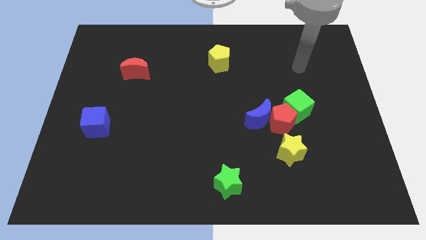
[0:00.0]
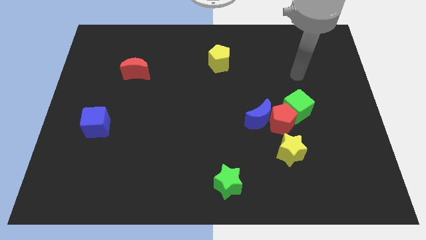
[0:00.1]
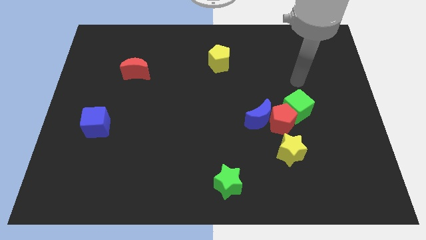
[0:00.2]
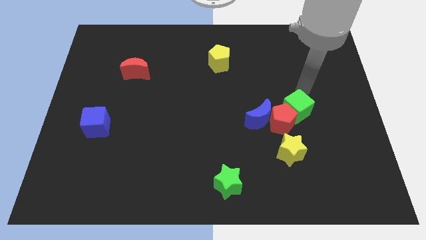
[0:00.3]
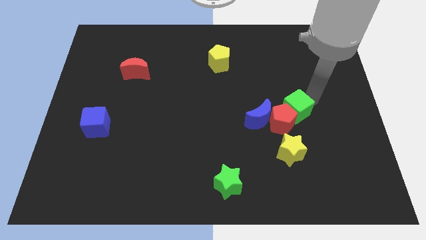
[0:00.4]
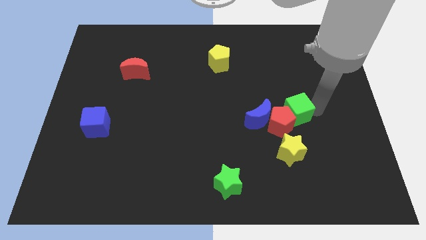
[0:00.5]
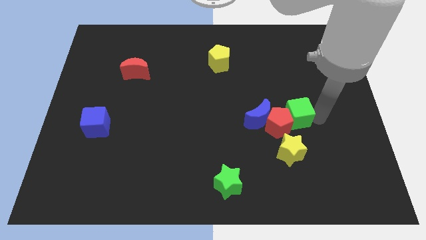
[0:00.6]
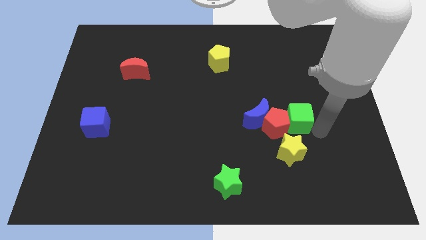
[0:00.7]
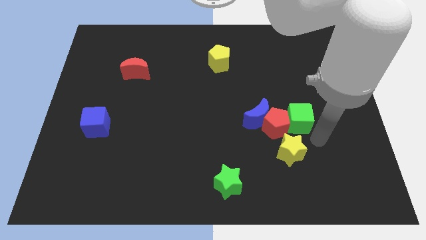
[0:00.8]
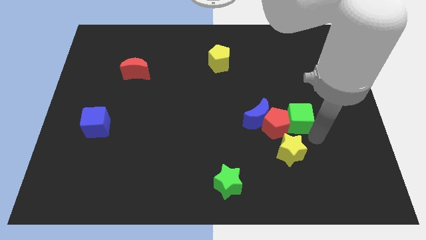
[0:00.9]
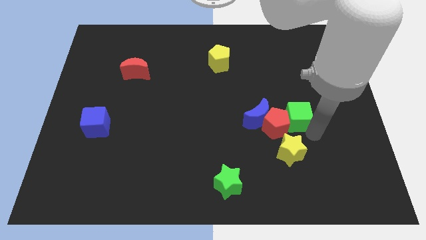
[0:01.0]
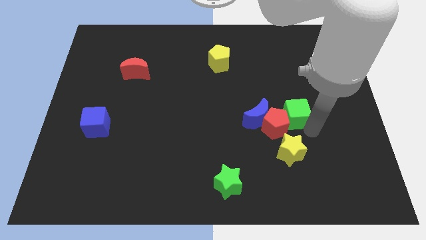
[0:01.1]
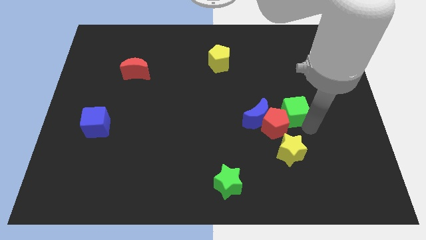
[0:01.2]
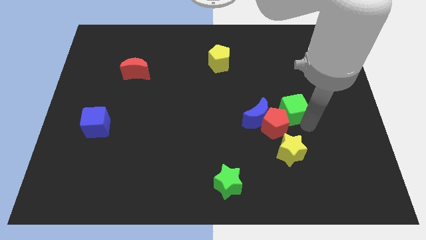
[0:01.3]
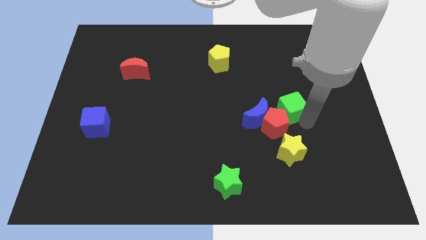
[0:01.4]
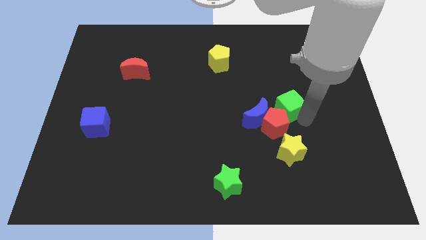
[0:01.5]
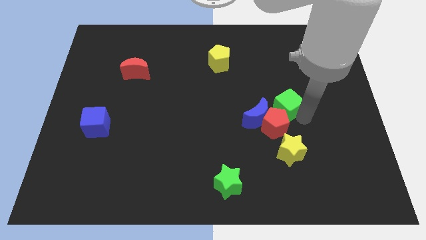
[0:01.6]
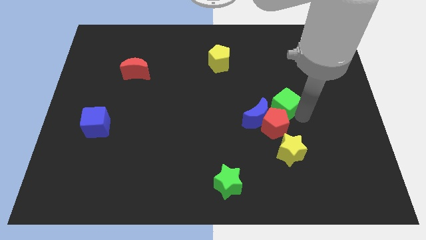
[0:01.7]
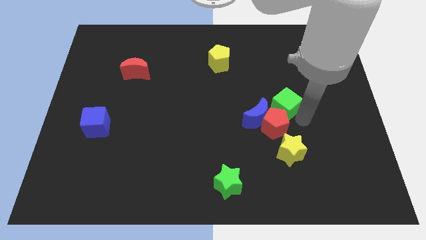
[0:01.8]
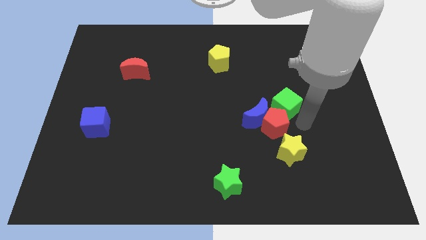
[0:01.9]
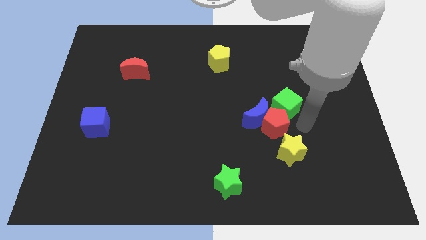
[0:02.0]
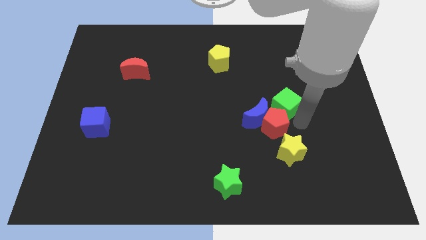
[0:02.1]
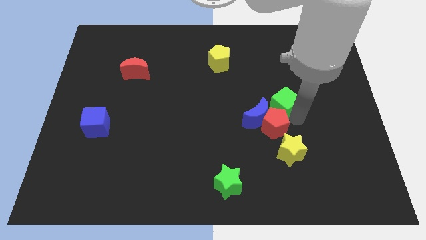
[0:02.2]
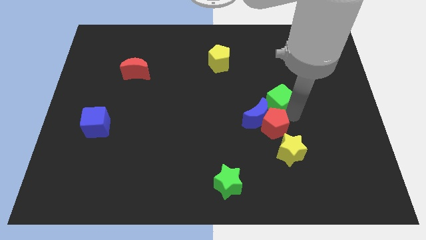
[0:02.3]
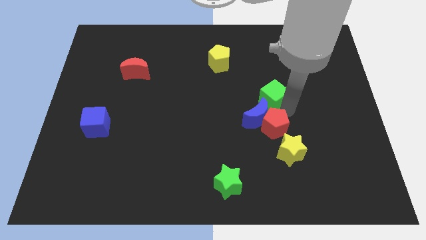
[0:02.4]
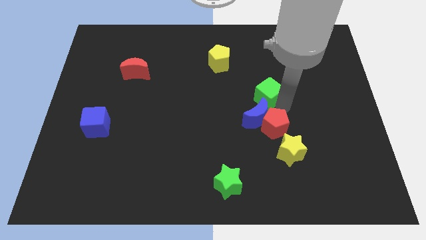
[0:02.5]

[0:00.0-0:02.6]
push the green cube slightly up and to the left

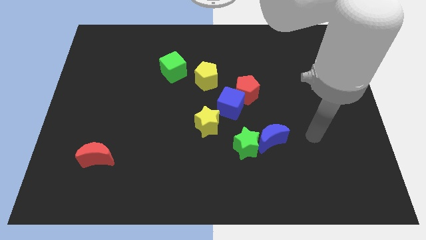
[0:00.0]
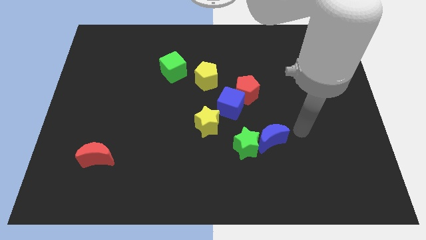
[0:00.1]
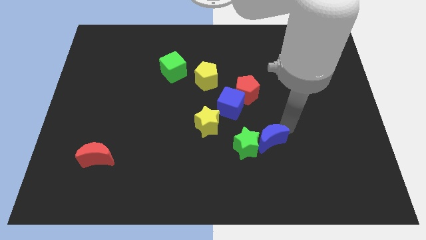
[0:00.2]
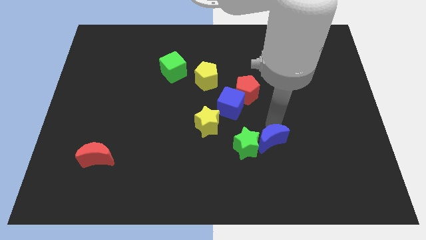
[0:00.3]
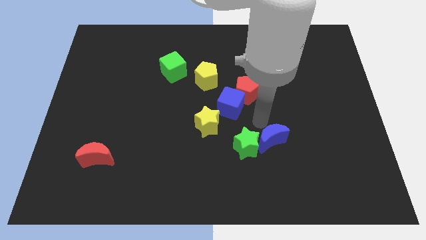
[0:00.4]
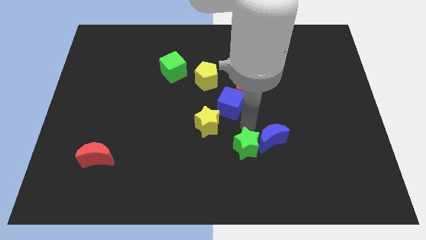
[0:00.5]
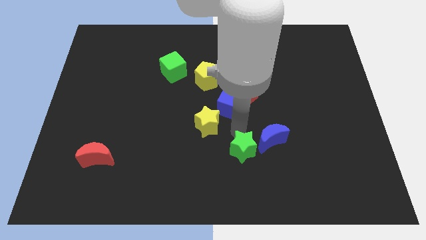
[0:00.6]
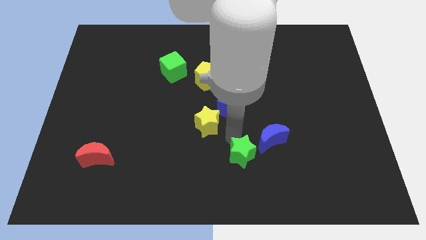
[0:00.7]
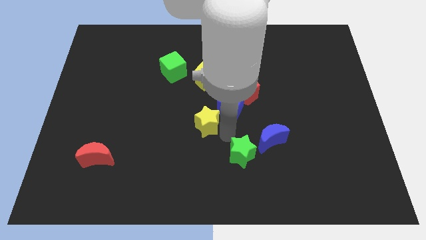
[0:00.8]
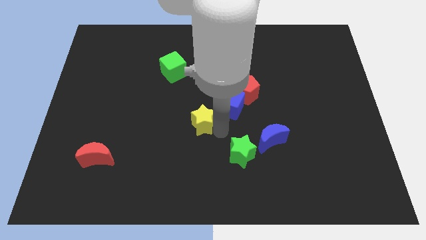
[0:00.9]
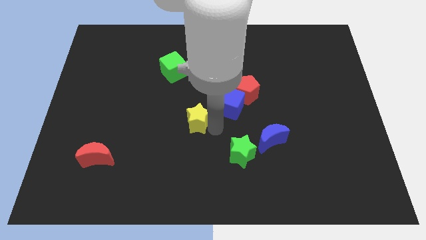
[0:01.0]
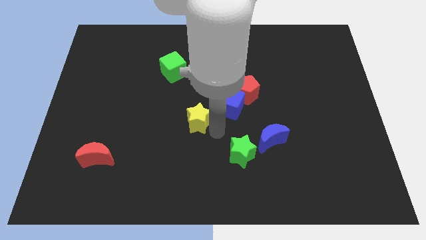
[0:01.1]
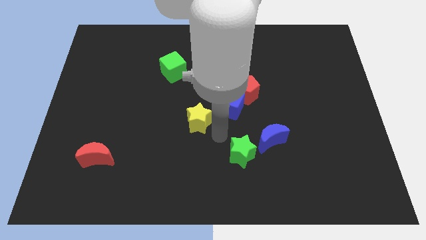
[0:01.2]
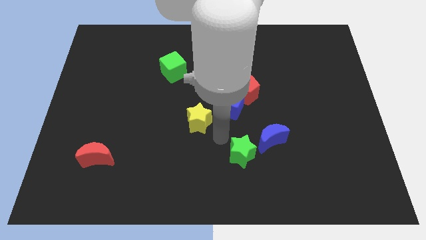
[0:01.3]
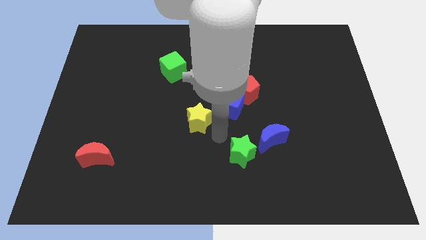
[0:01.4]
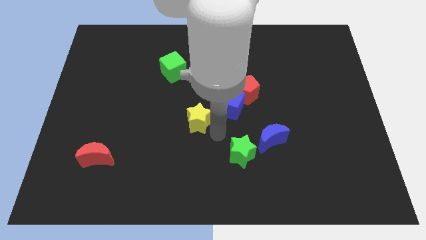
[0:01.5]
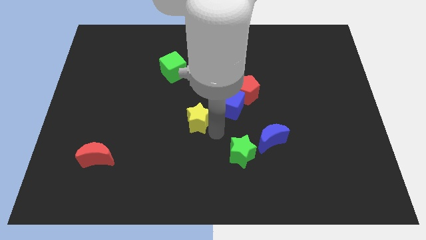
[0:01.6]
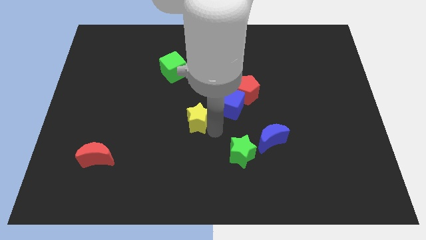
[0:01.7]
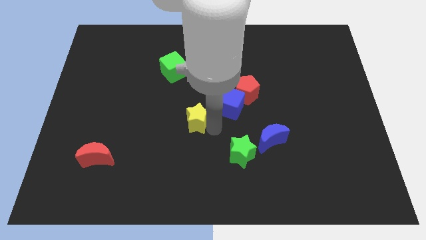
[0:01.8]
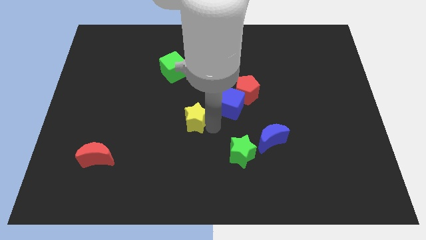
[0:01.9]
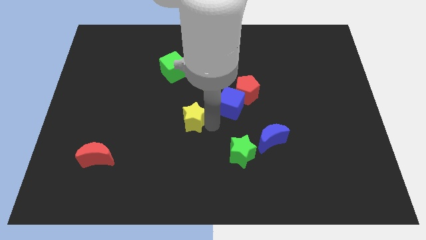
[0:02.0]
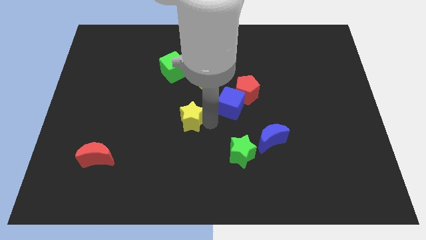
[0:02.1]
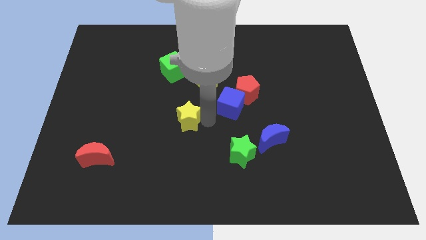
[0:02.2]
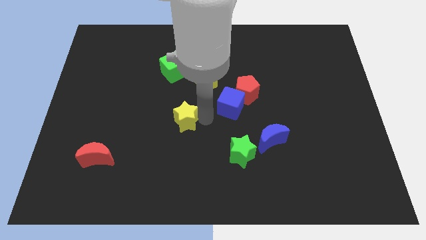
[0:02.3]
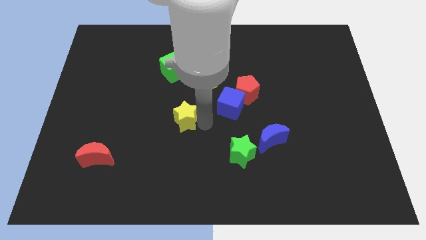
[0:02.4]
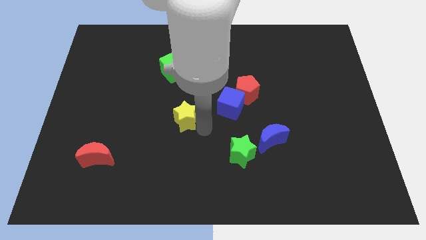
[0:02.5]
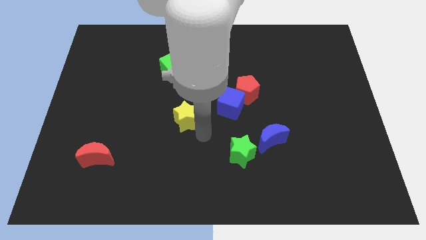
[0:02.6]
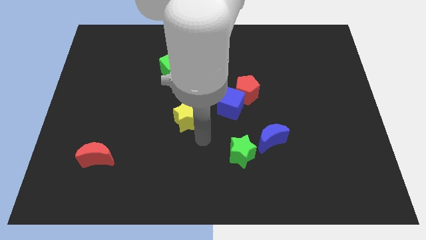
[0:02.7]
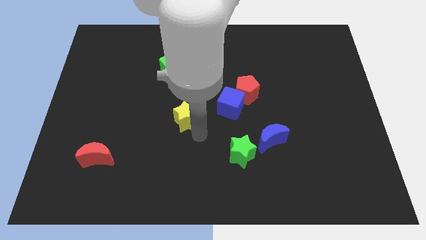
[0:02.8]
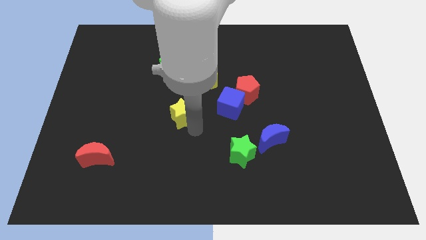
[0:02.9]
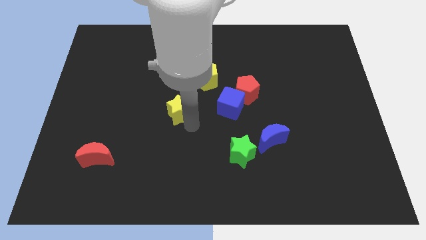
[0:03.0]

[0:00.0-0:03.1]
slightly slide the yellow star diagonally up and to the left

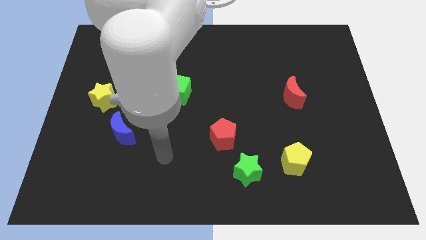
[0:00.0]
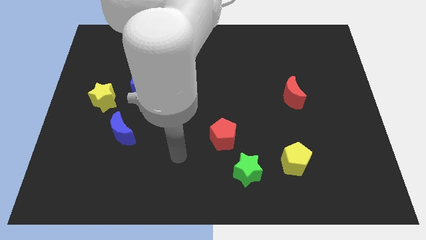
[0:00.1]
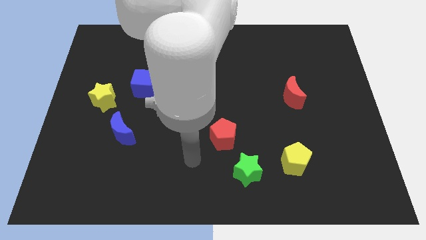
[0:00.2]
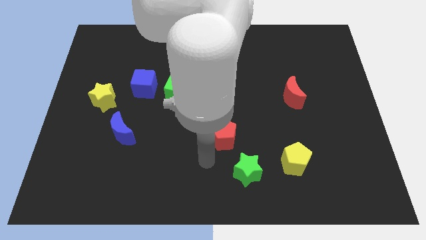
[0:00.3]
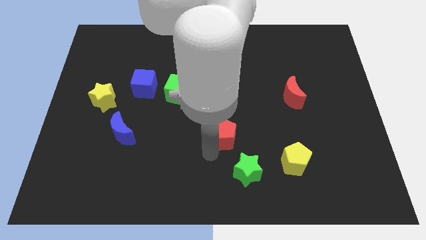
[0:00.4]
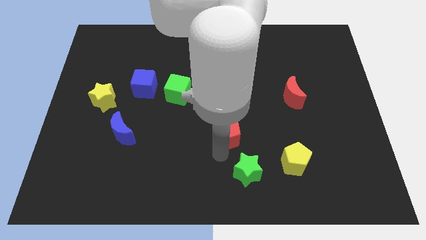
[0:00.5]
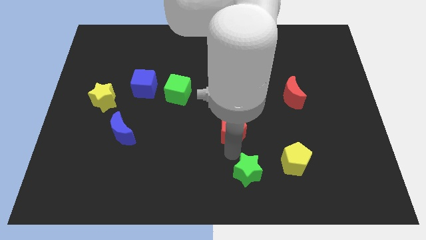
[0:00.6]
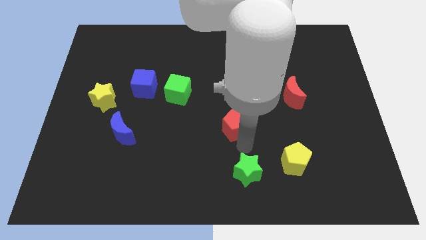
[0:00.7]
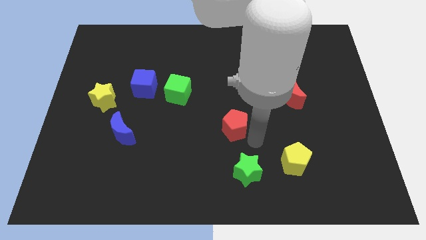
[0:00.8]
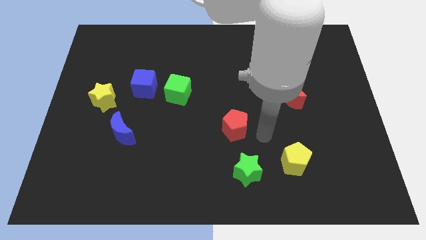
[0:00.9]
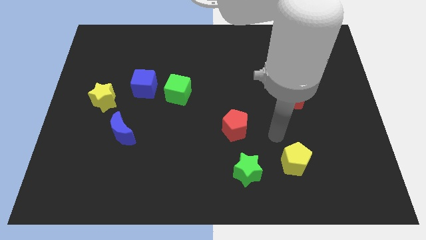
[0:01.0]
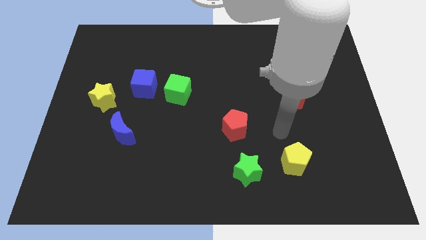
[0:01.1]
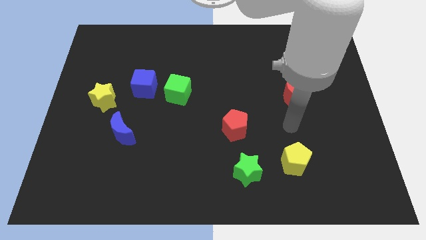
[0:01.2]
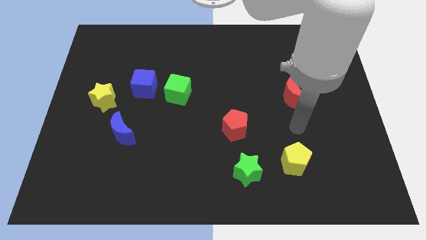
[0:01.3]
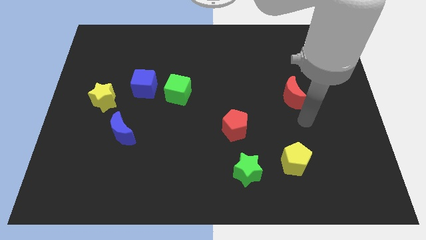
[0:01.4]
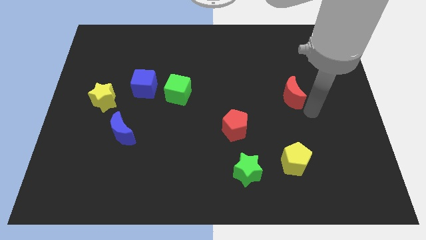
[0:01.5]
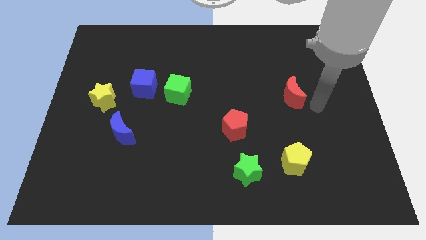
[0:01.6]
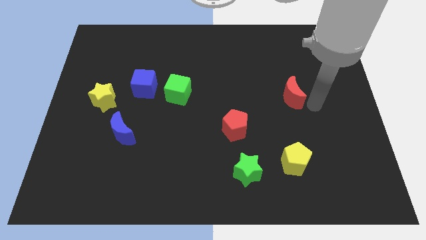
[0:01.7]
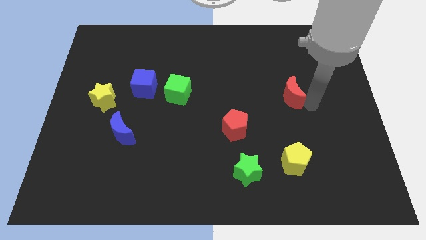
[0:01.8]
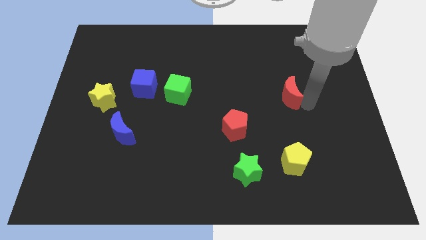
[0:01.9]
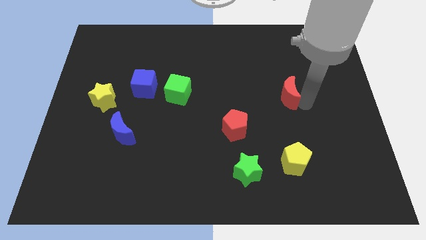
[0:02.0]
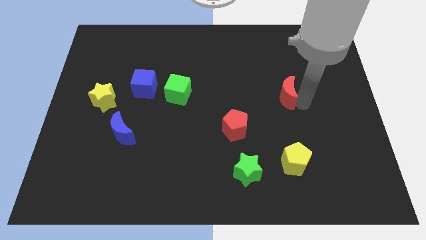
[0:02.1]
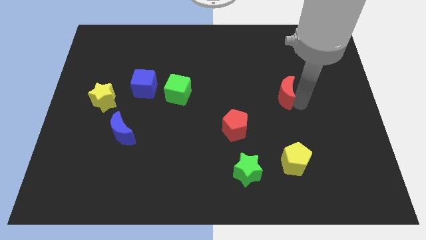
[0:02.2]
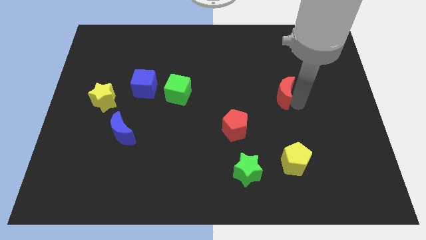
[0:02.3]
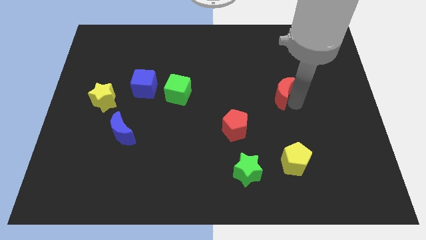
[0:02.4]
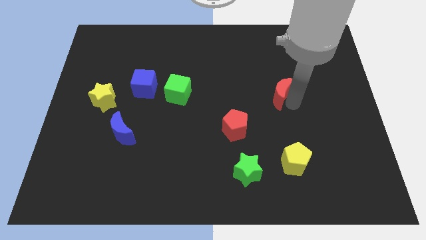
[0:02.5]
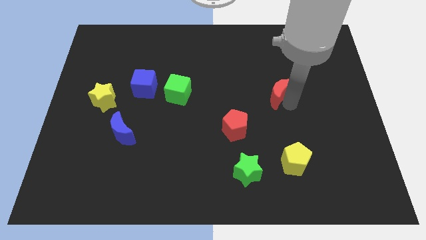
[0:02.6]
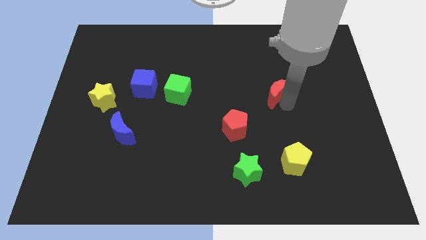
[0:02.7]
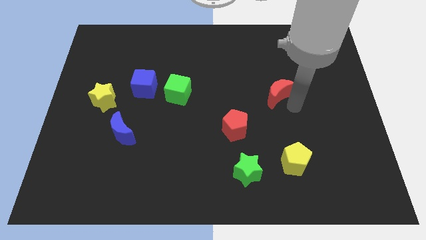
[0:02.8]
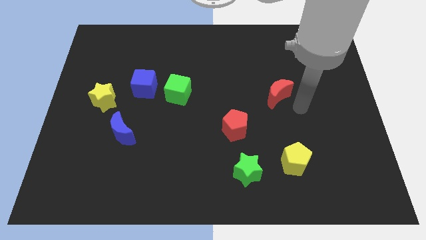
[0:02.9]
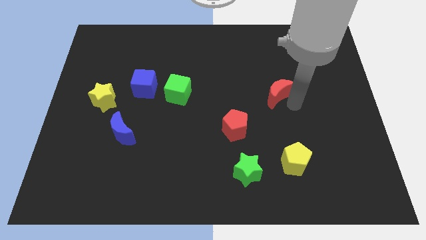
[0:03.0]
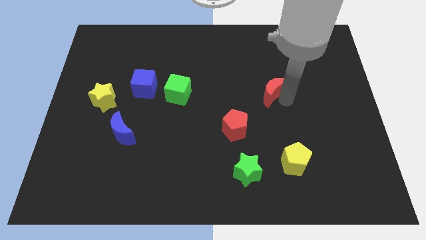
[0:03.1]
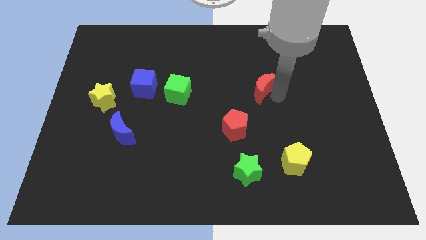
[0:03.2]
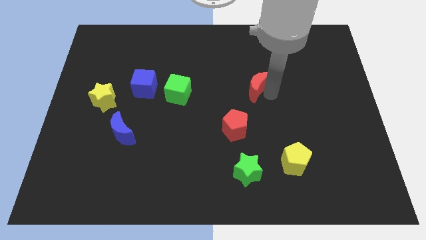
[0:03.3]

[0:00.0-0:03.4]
slightly push the red moon up and to the left diagonally
